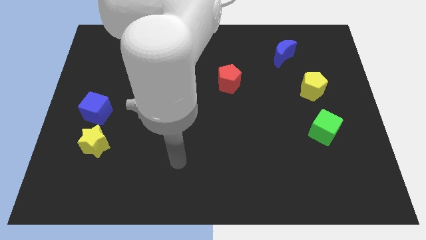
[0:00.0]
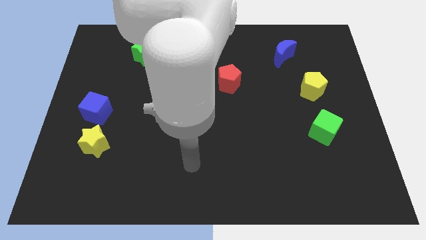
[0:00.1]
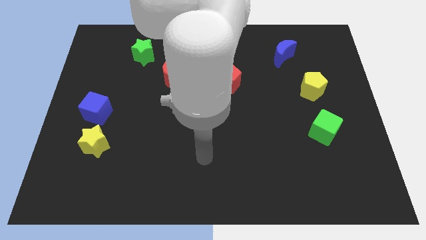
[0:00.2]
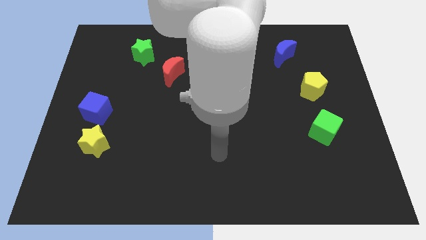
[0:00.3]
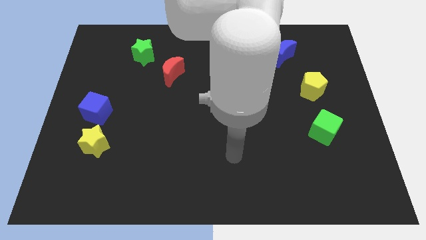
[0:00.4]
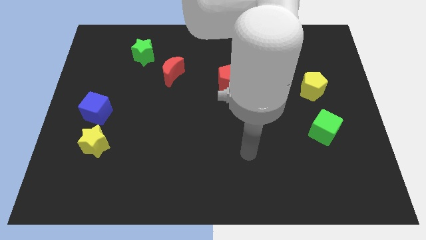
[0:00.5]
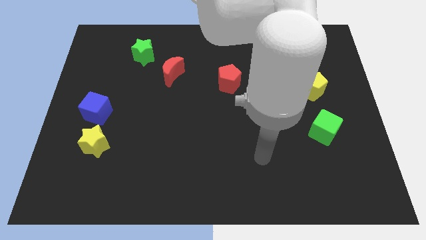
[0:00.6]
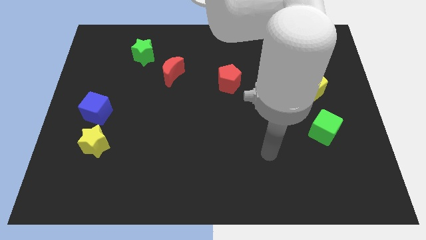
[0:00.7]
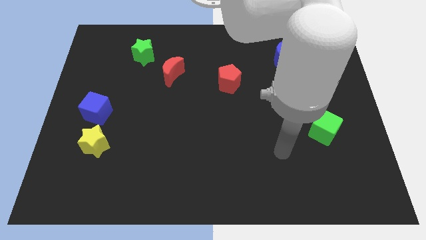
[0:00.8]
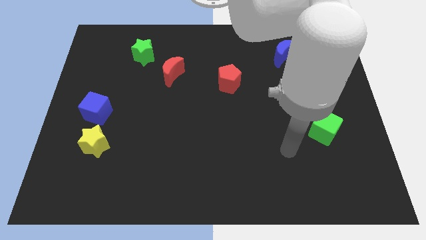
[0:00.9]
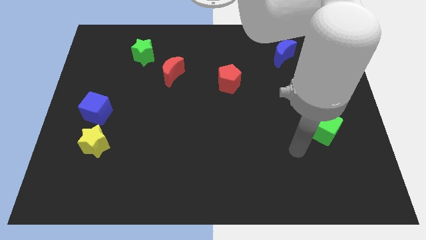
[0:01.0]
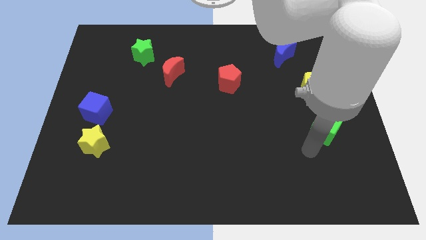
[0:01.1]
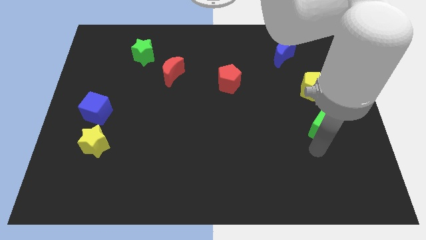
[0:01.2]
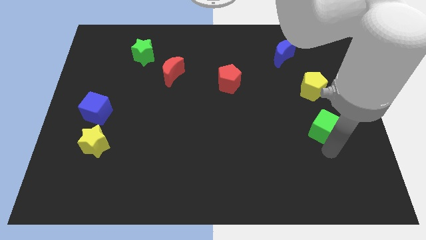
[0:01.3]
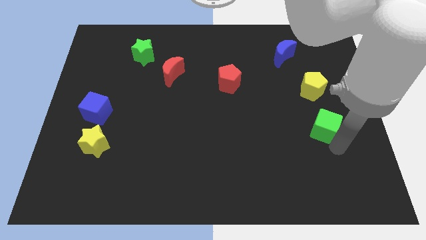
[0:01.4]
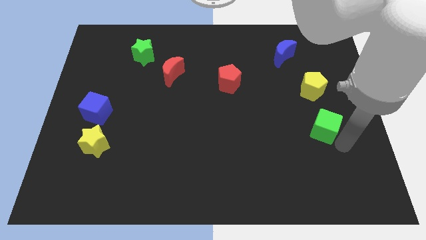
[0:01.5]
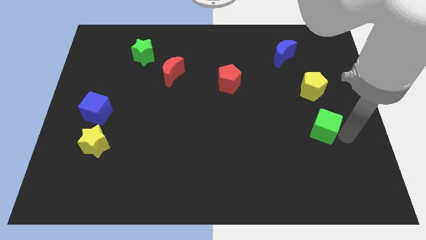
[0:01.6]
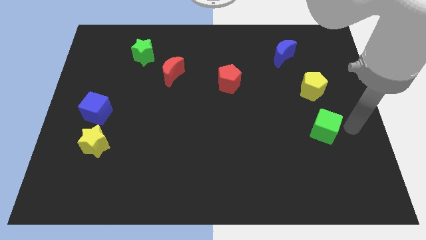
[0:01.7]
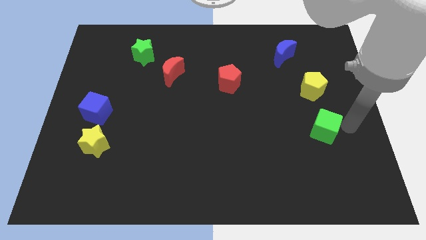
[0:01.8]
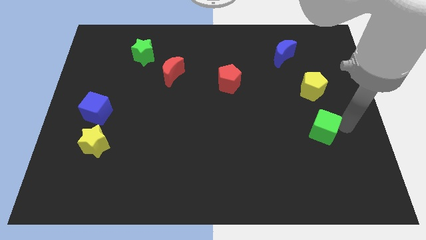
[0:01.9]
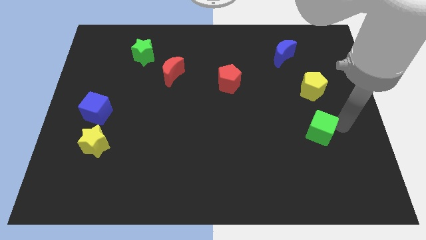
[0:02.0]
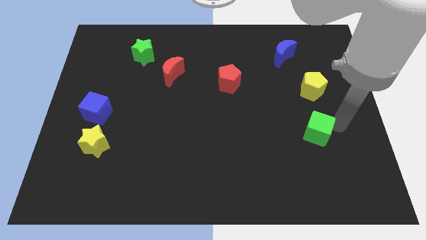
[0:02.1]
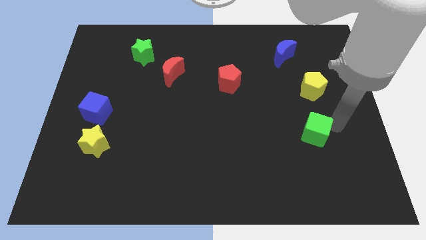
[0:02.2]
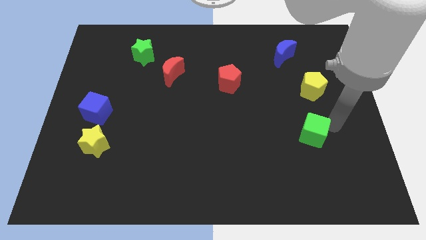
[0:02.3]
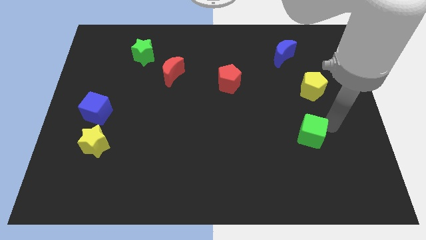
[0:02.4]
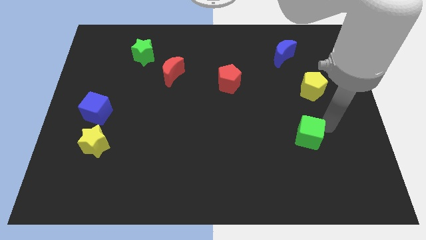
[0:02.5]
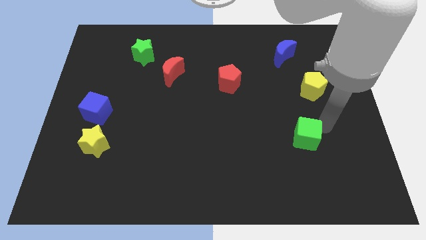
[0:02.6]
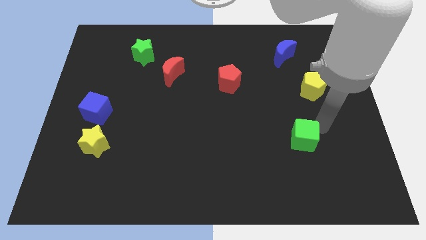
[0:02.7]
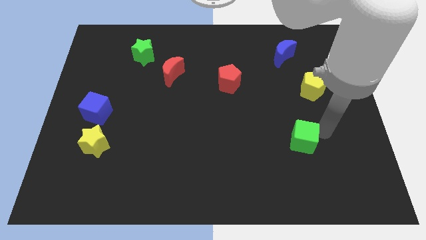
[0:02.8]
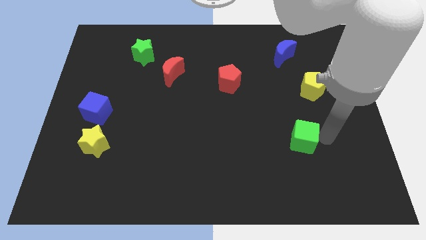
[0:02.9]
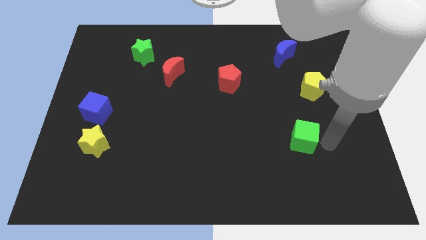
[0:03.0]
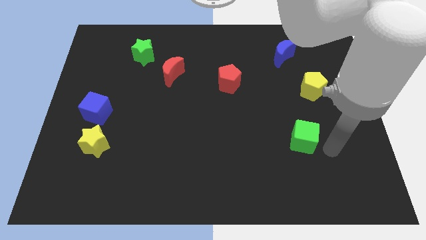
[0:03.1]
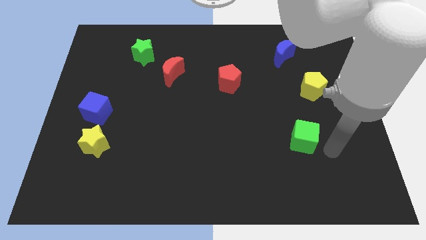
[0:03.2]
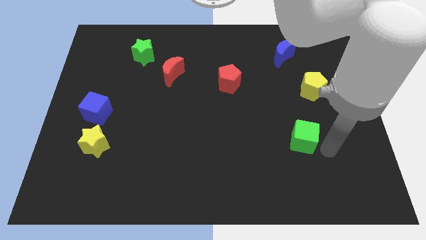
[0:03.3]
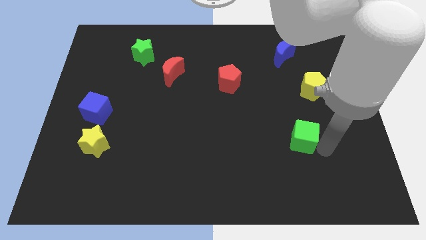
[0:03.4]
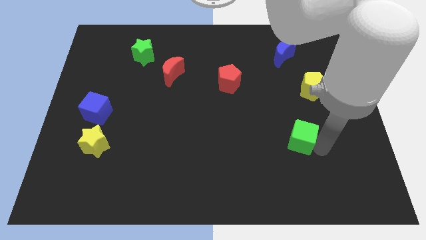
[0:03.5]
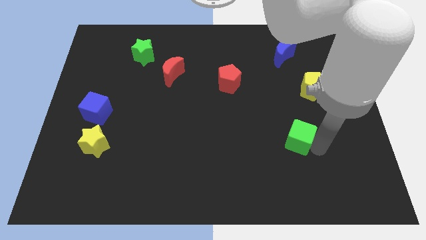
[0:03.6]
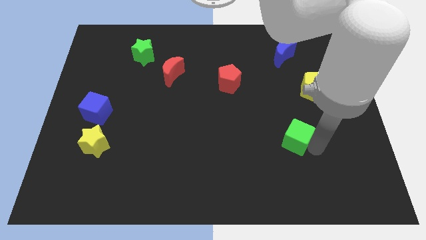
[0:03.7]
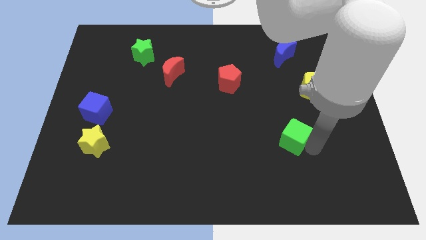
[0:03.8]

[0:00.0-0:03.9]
move the green cube to the left slightly

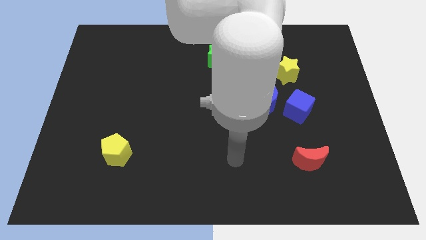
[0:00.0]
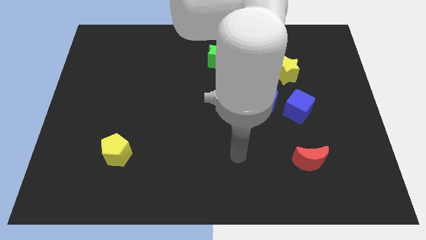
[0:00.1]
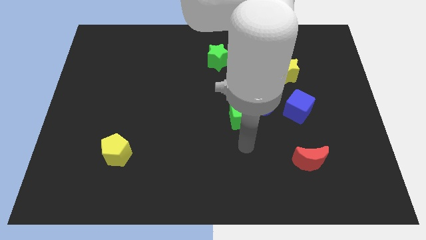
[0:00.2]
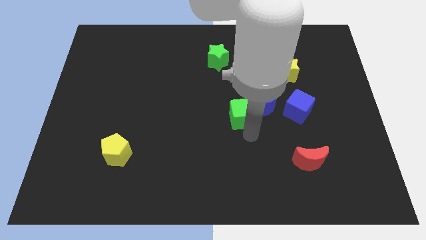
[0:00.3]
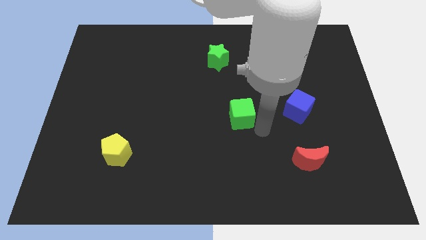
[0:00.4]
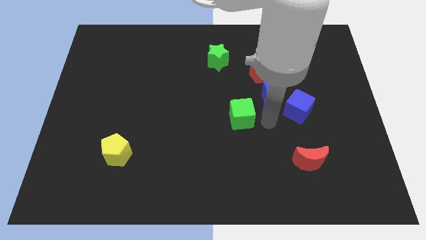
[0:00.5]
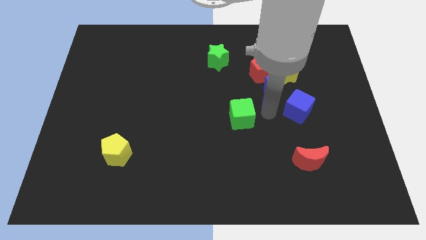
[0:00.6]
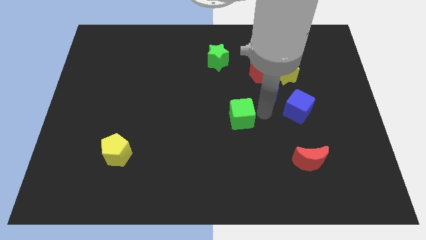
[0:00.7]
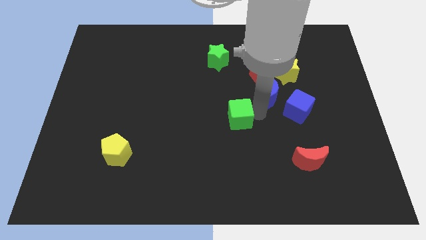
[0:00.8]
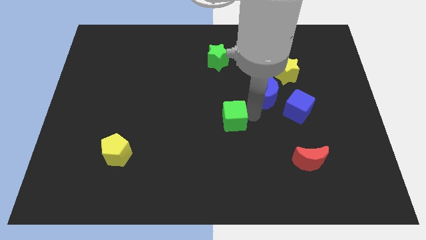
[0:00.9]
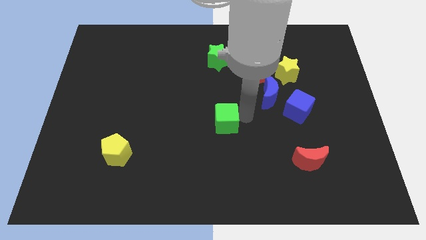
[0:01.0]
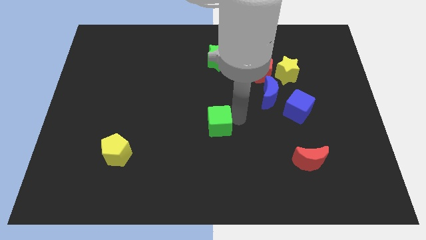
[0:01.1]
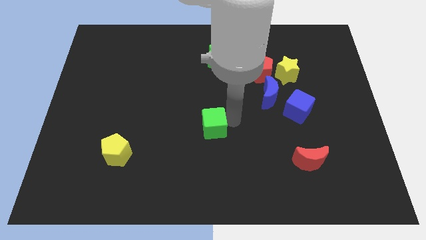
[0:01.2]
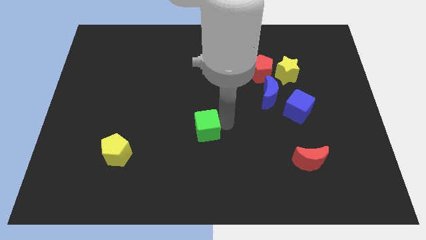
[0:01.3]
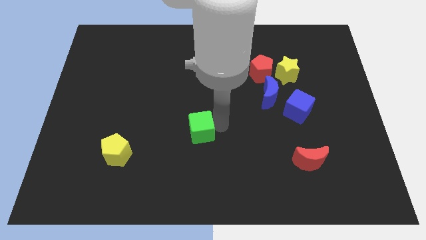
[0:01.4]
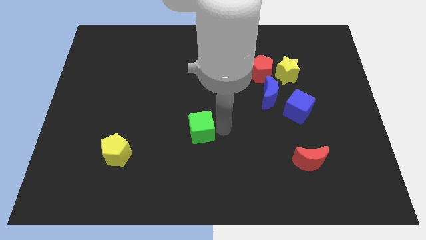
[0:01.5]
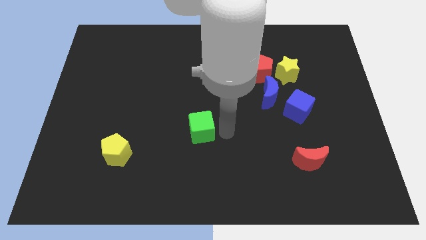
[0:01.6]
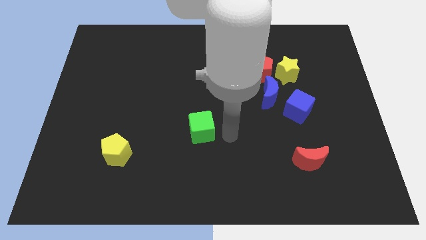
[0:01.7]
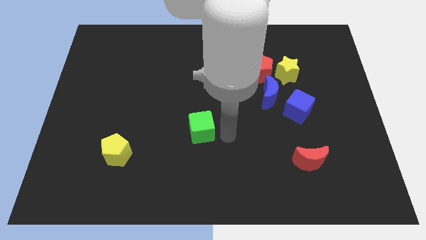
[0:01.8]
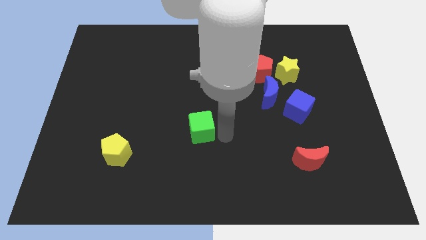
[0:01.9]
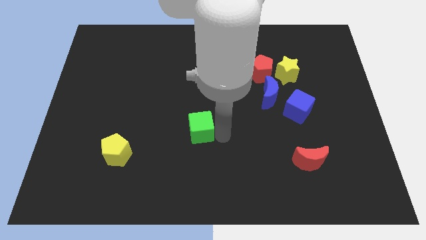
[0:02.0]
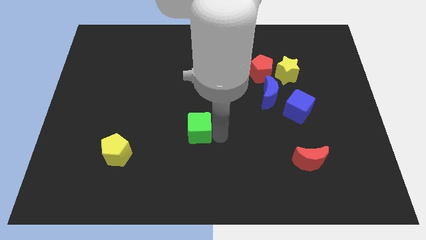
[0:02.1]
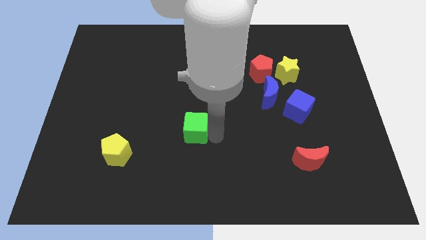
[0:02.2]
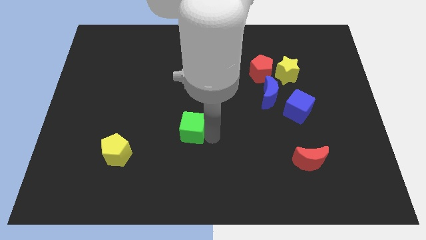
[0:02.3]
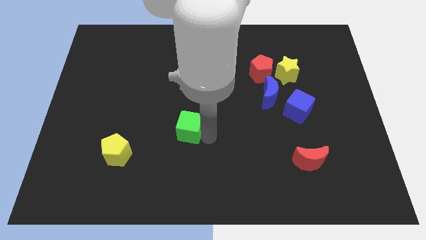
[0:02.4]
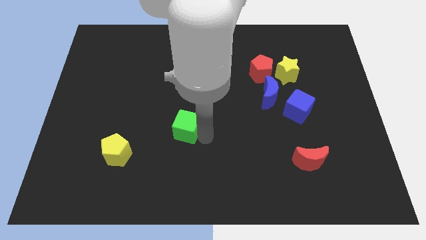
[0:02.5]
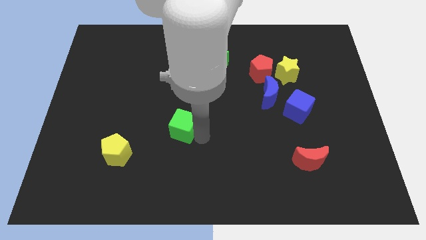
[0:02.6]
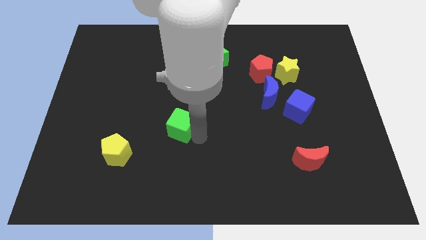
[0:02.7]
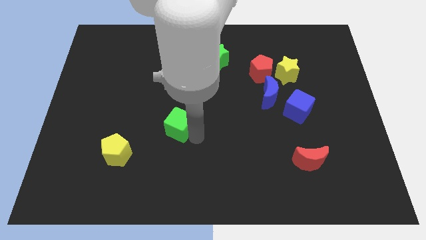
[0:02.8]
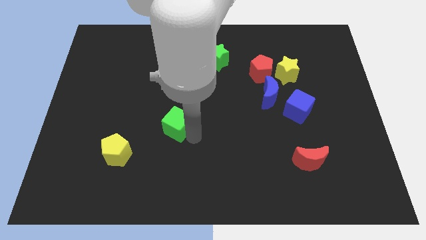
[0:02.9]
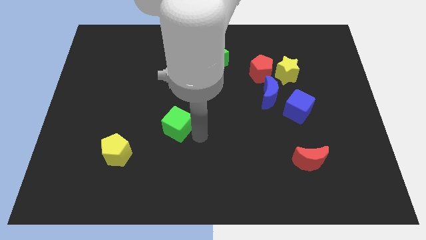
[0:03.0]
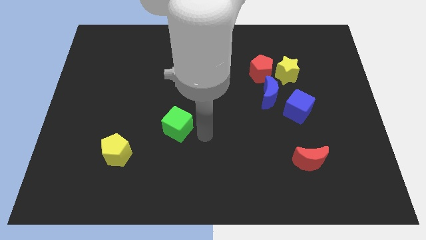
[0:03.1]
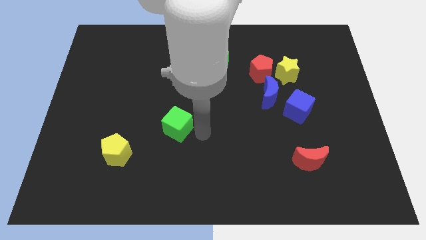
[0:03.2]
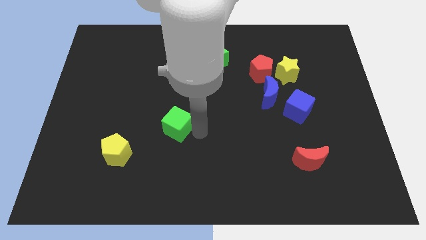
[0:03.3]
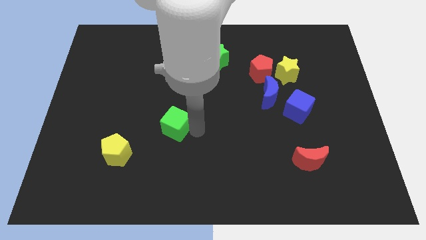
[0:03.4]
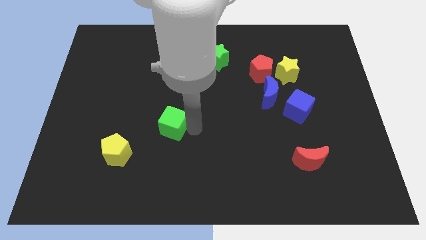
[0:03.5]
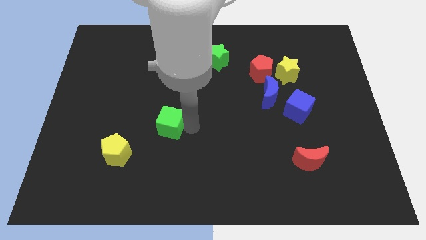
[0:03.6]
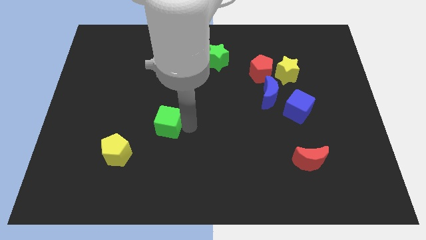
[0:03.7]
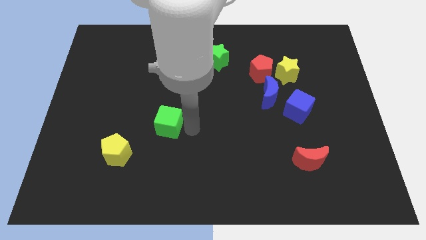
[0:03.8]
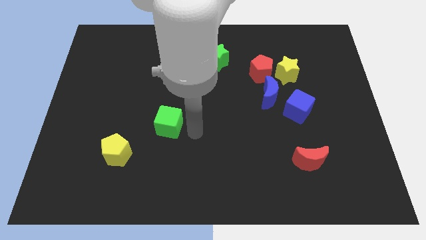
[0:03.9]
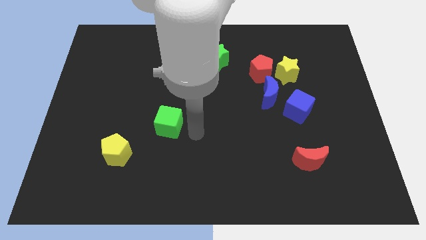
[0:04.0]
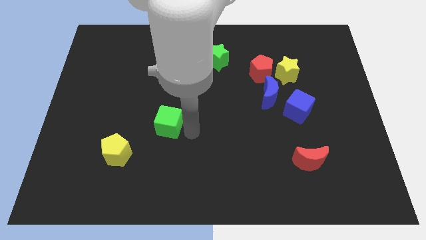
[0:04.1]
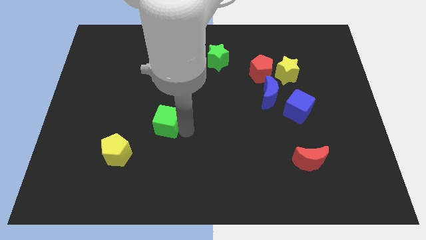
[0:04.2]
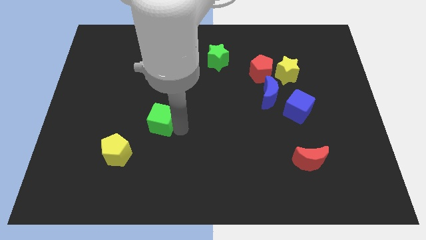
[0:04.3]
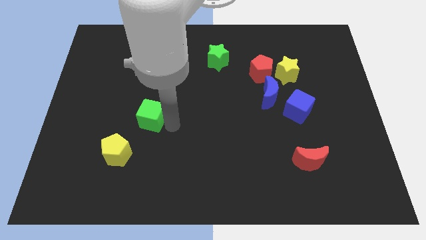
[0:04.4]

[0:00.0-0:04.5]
slide the green cube left
